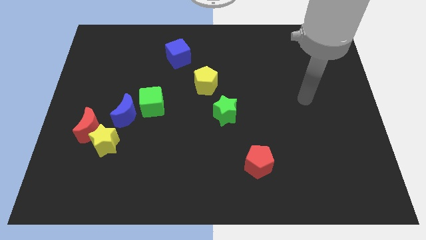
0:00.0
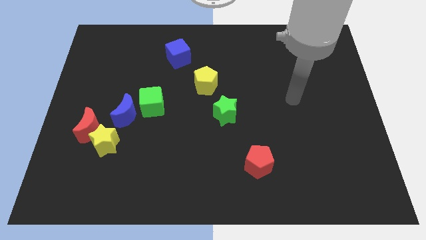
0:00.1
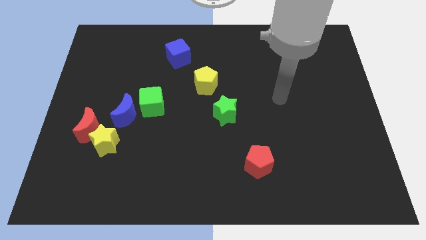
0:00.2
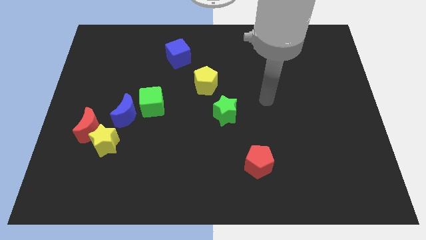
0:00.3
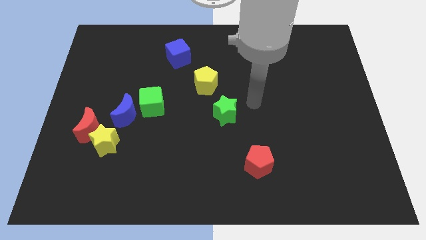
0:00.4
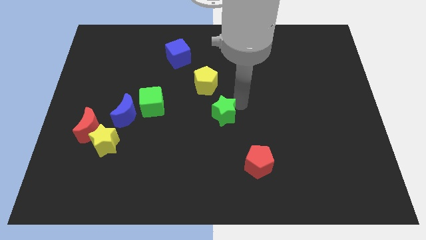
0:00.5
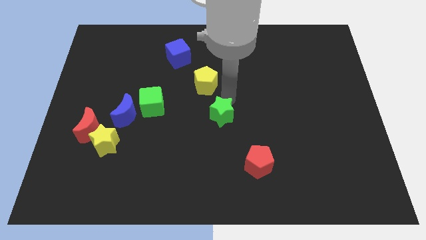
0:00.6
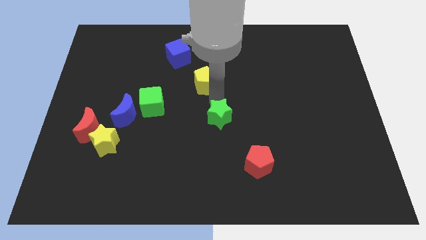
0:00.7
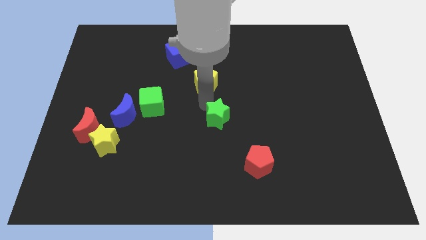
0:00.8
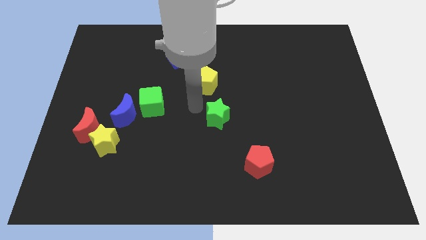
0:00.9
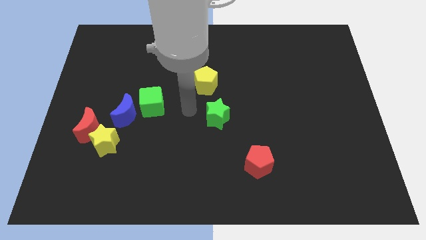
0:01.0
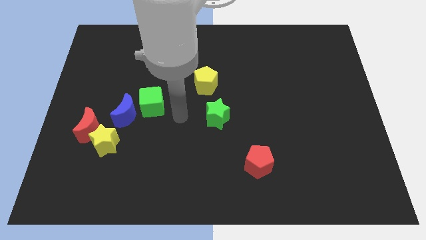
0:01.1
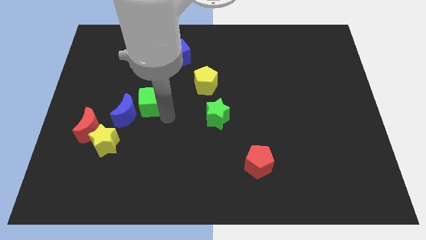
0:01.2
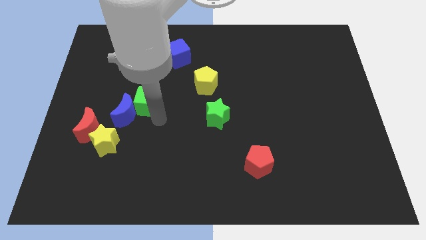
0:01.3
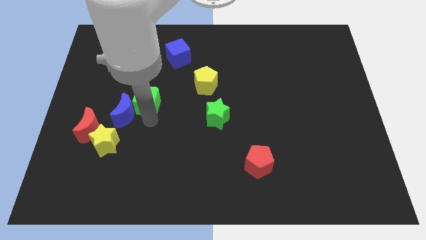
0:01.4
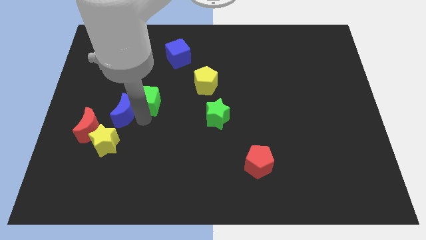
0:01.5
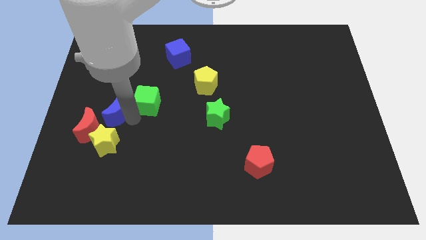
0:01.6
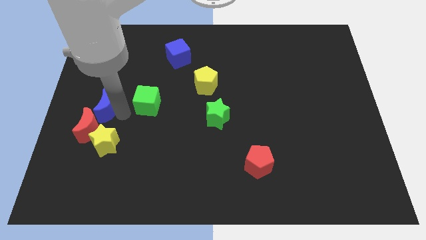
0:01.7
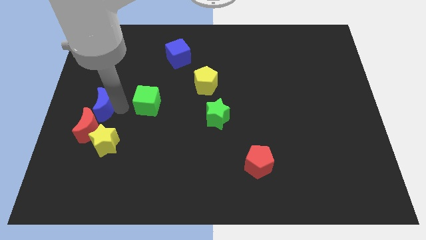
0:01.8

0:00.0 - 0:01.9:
move the green cube away from the blue moon

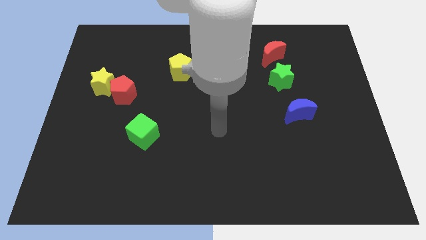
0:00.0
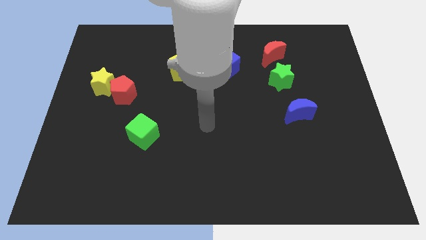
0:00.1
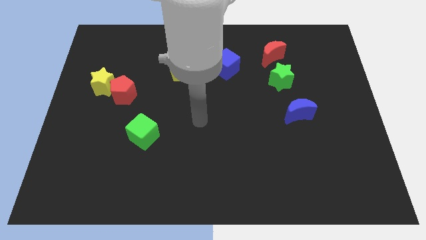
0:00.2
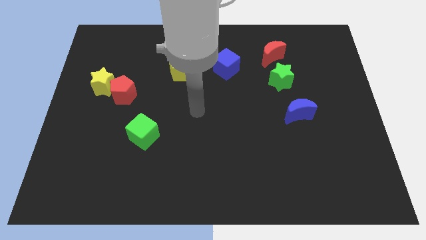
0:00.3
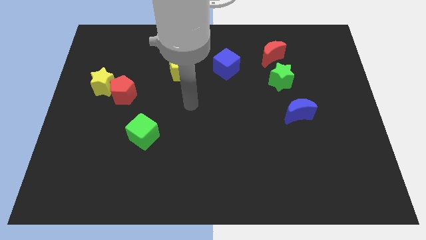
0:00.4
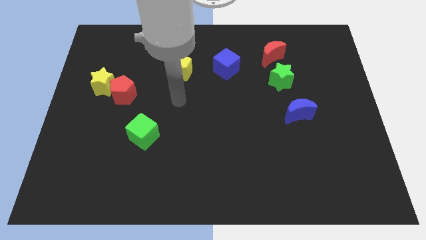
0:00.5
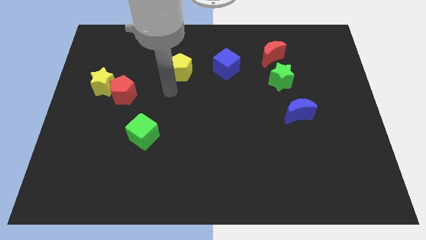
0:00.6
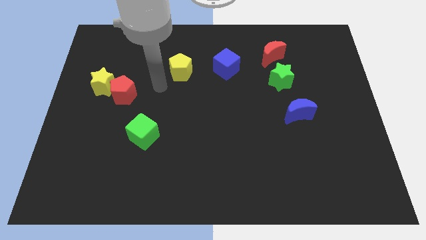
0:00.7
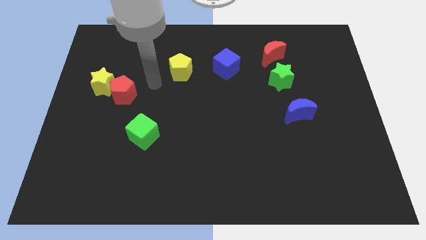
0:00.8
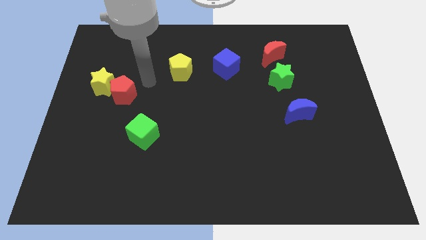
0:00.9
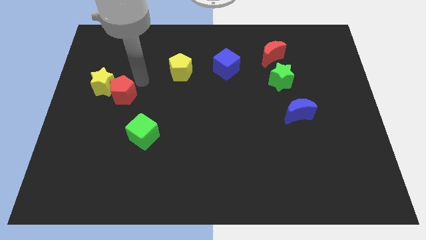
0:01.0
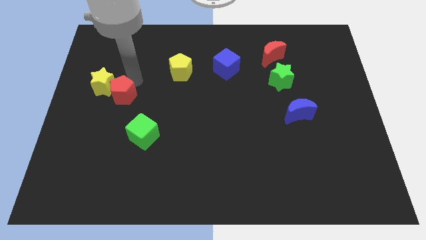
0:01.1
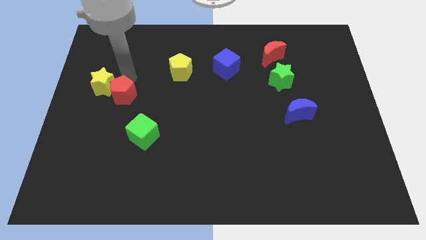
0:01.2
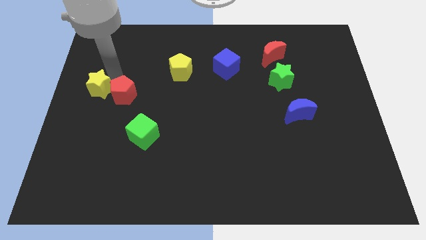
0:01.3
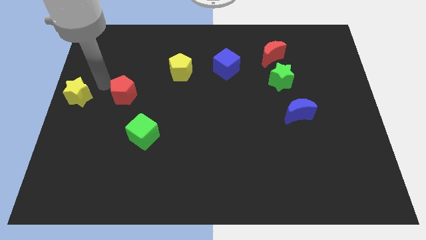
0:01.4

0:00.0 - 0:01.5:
separate the red pentagon from the yellow star

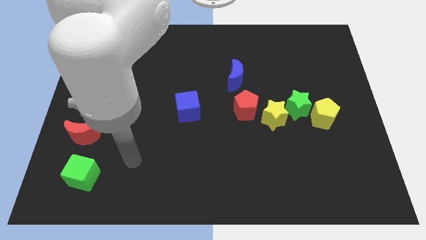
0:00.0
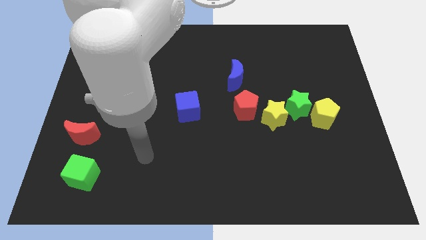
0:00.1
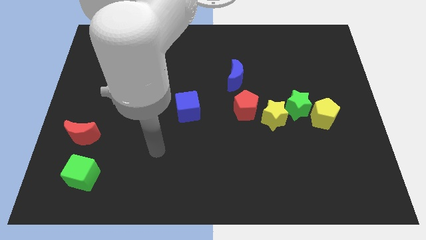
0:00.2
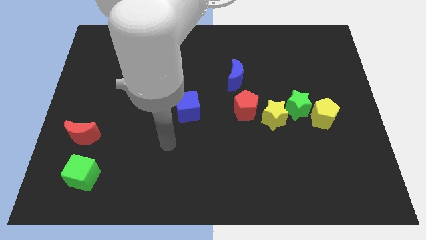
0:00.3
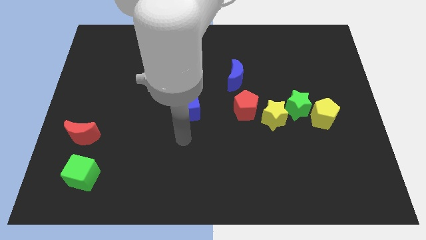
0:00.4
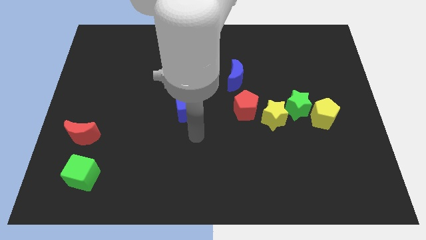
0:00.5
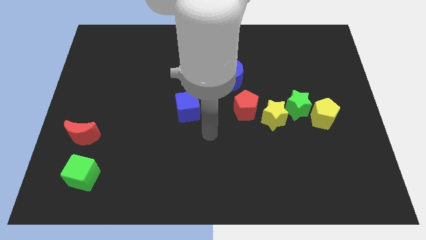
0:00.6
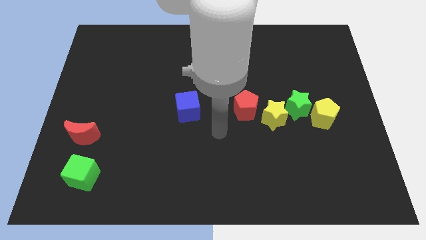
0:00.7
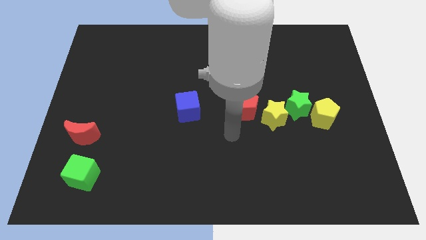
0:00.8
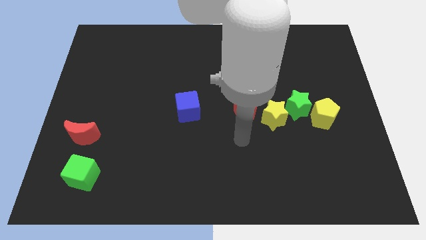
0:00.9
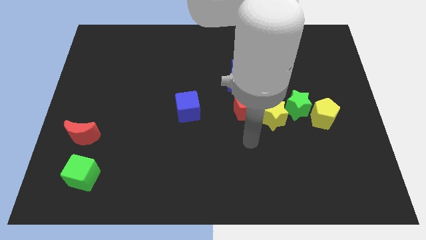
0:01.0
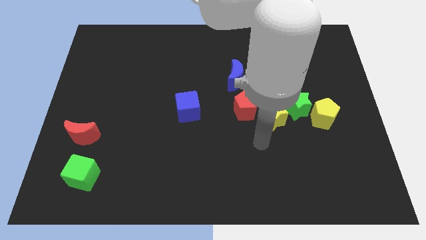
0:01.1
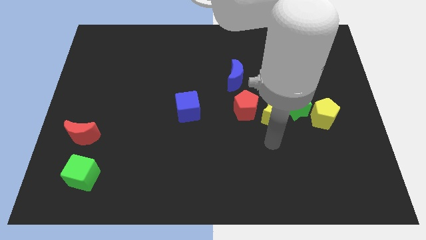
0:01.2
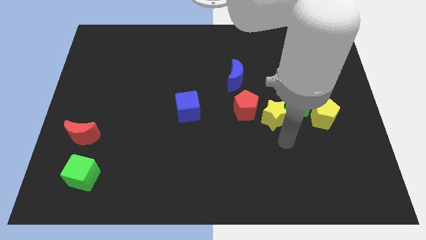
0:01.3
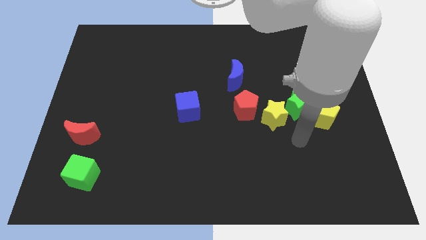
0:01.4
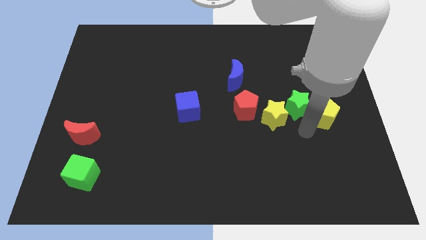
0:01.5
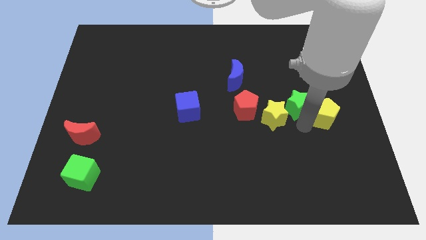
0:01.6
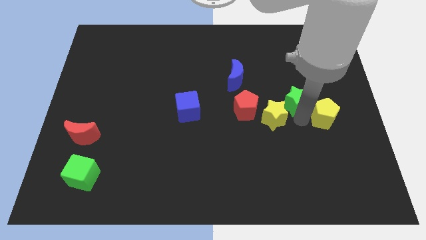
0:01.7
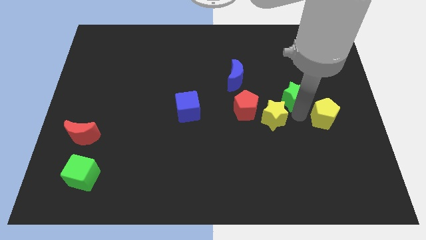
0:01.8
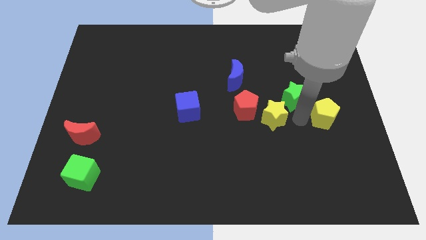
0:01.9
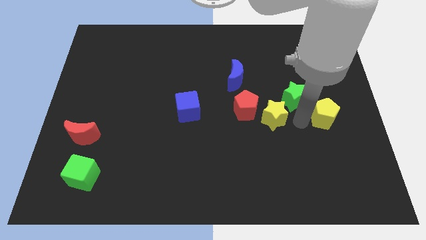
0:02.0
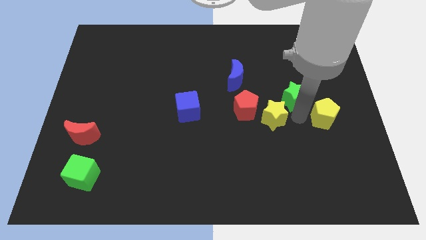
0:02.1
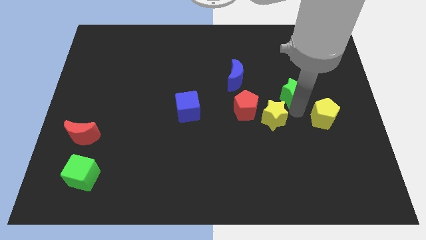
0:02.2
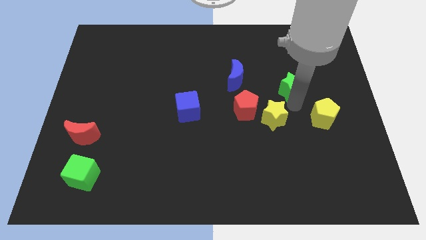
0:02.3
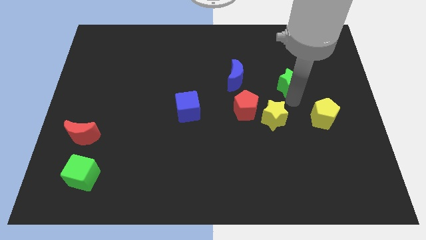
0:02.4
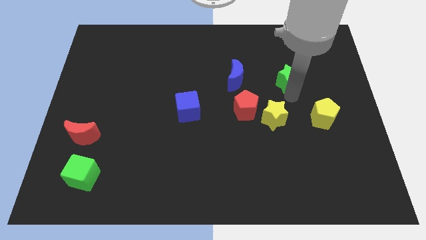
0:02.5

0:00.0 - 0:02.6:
move the green star away from the yellow star and yellow pentagon

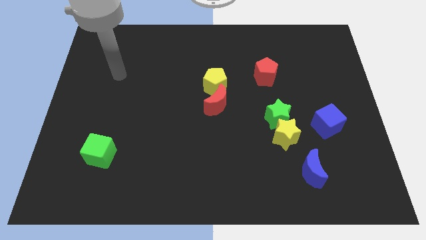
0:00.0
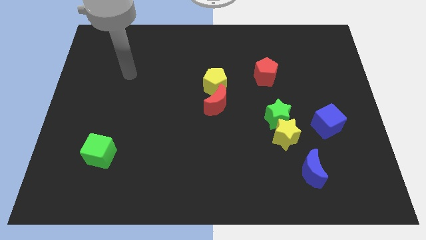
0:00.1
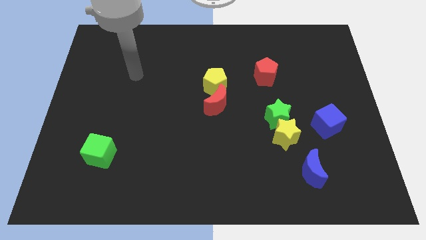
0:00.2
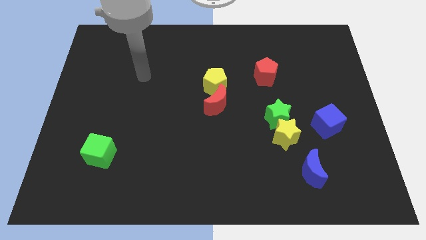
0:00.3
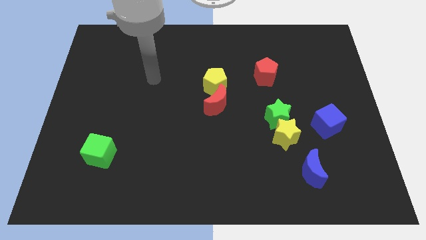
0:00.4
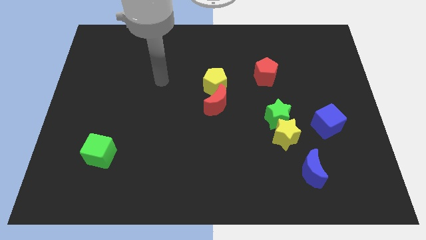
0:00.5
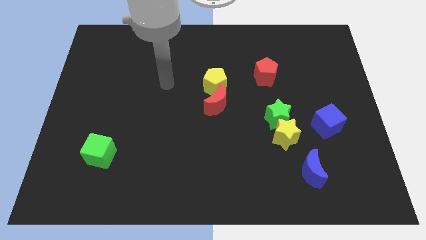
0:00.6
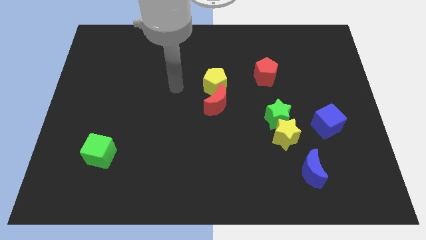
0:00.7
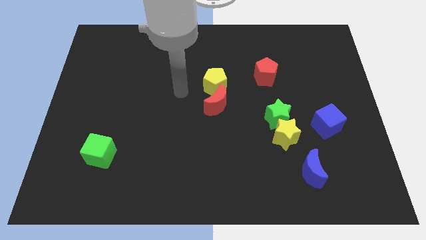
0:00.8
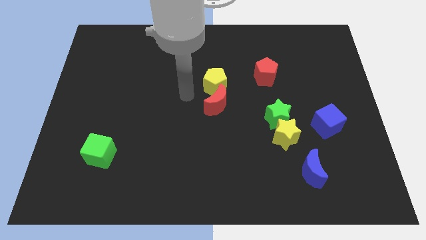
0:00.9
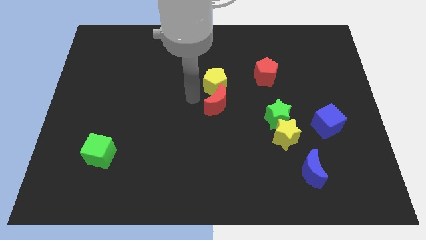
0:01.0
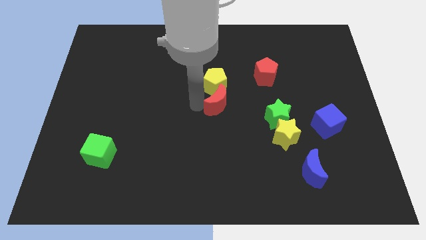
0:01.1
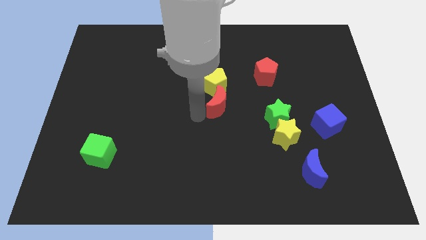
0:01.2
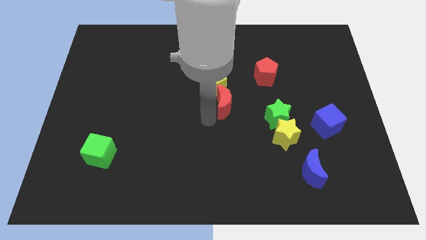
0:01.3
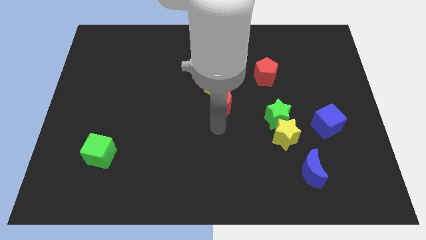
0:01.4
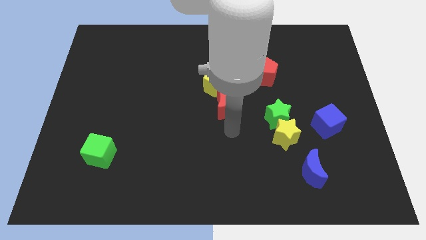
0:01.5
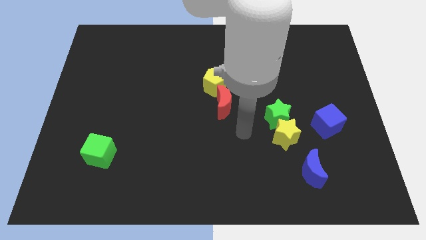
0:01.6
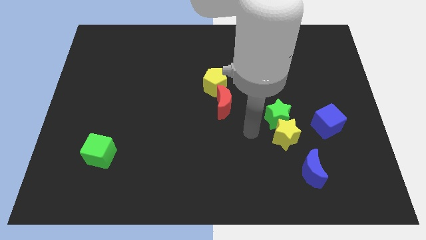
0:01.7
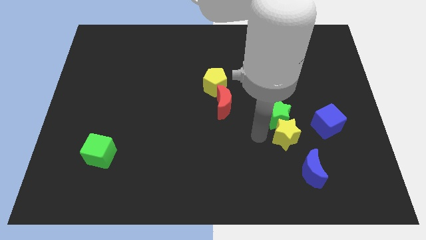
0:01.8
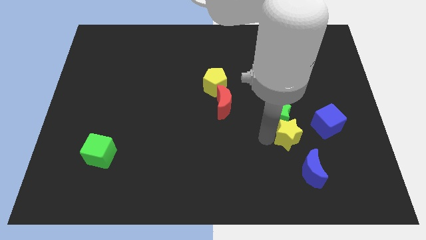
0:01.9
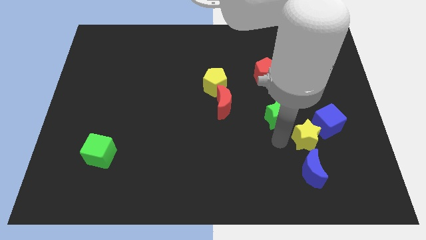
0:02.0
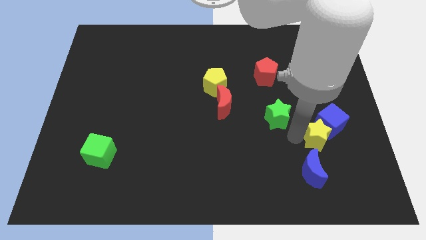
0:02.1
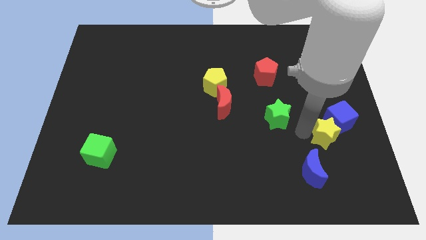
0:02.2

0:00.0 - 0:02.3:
pull the green star apart from the yellow star

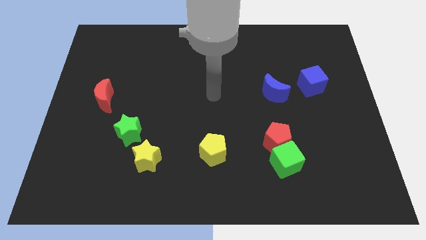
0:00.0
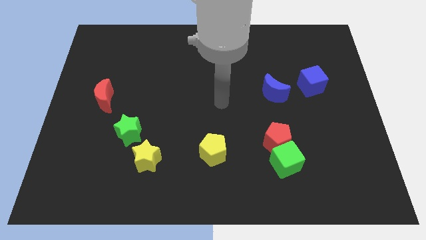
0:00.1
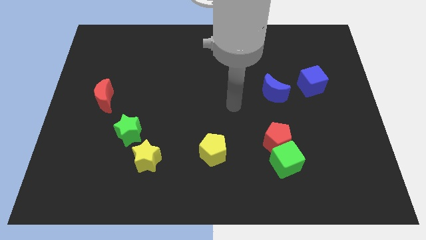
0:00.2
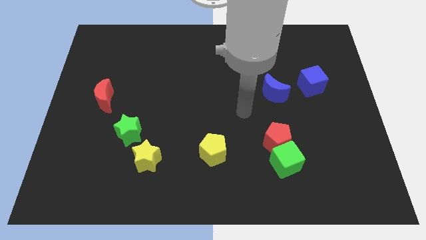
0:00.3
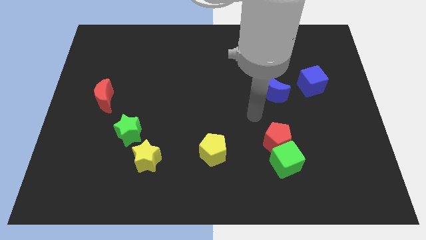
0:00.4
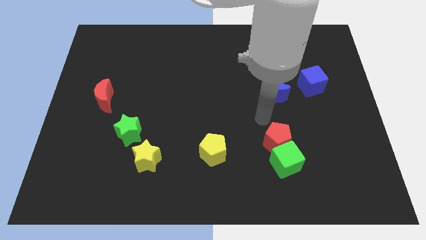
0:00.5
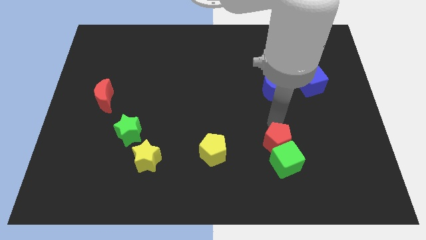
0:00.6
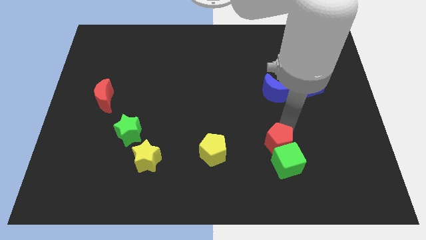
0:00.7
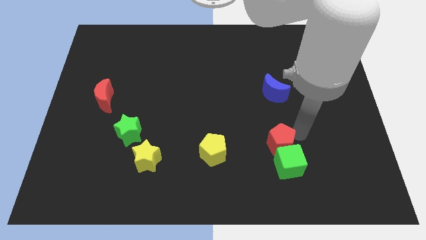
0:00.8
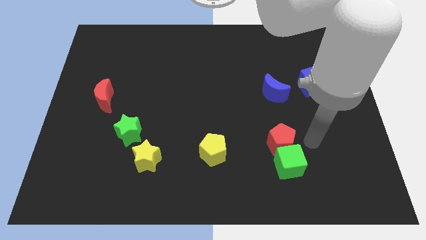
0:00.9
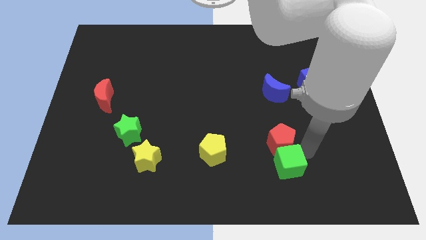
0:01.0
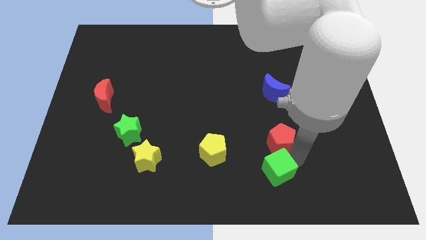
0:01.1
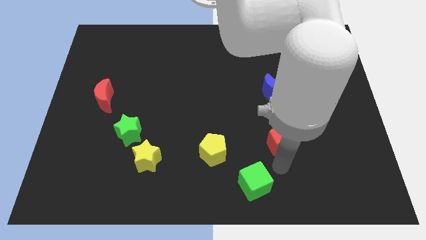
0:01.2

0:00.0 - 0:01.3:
separate the red pentagon from the green cube
